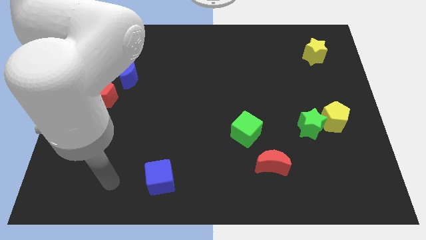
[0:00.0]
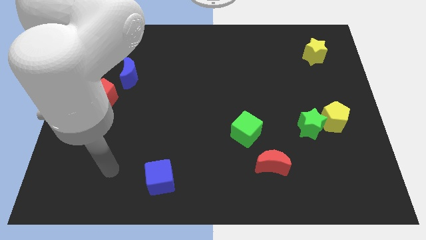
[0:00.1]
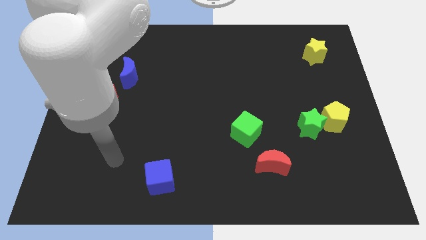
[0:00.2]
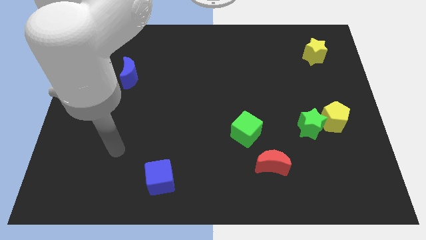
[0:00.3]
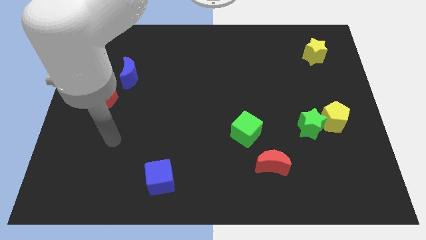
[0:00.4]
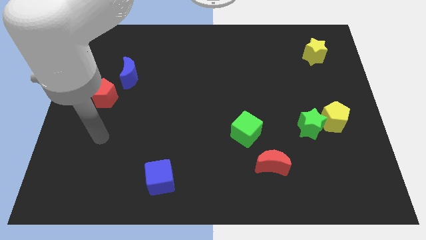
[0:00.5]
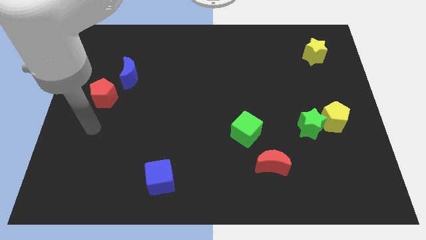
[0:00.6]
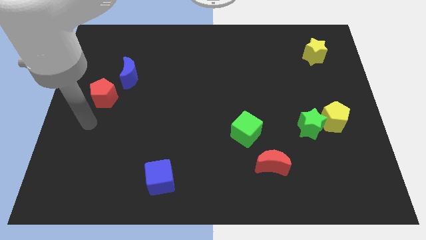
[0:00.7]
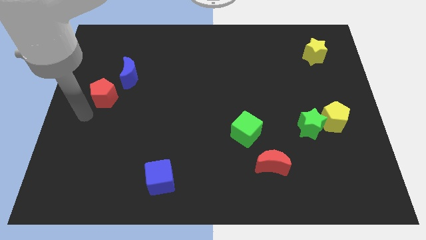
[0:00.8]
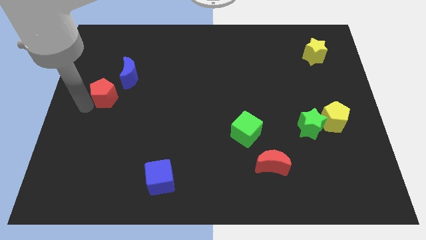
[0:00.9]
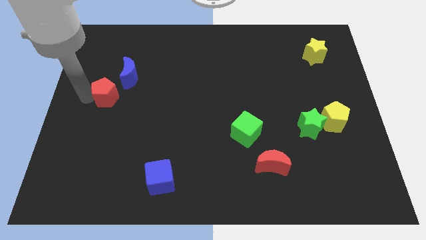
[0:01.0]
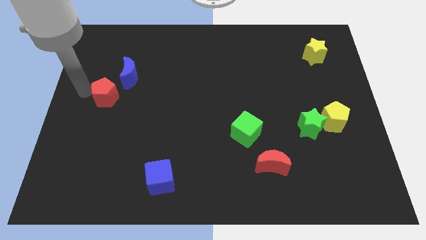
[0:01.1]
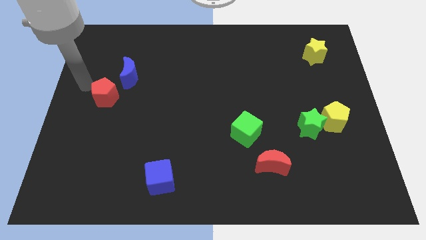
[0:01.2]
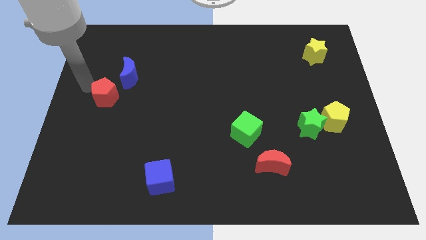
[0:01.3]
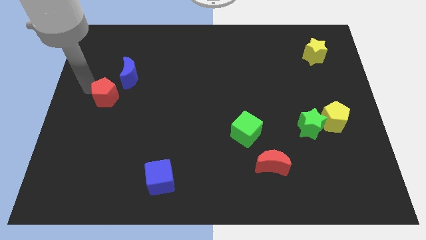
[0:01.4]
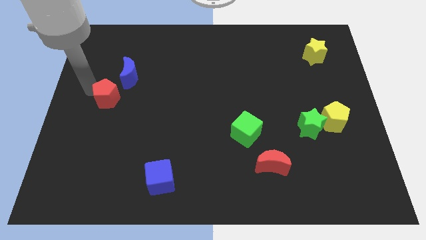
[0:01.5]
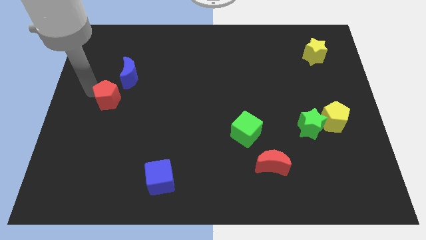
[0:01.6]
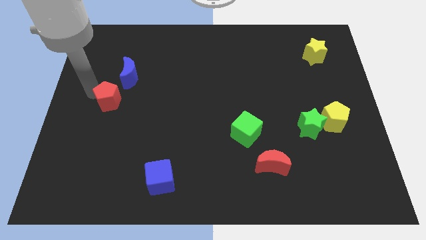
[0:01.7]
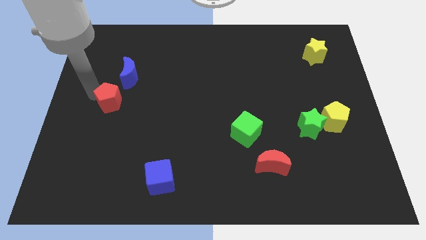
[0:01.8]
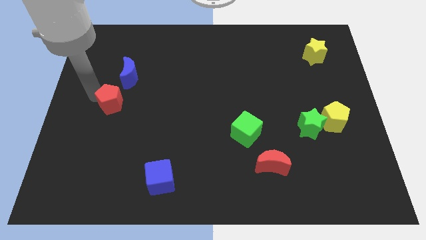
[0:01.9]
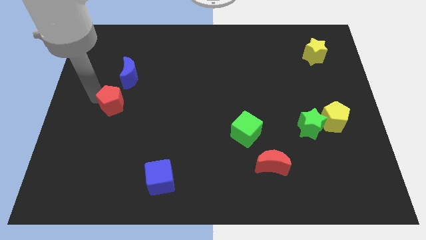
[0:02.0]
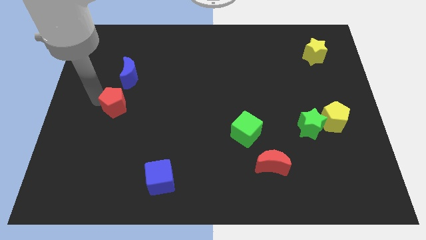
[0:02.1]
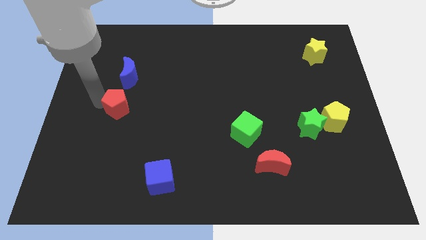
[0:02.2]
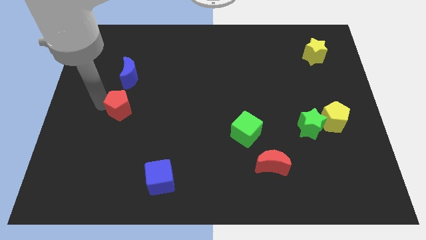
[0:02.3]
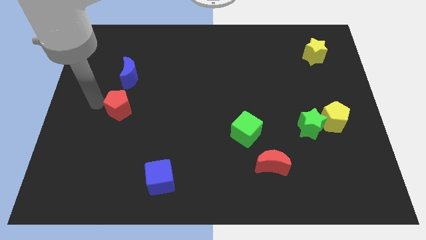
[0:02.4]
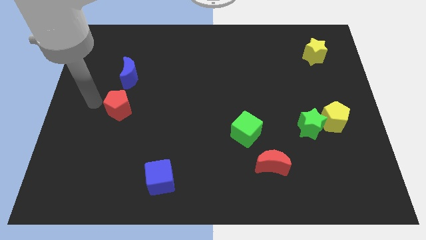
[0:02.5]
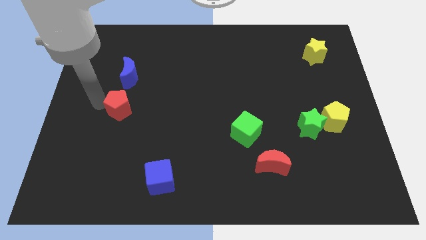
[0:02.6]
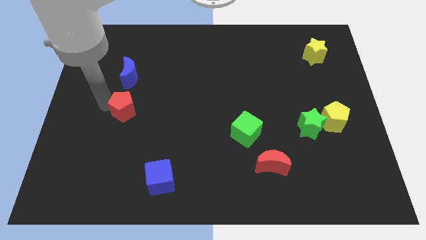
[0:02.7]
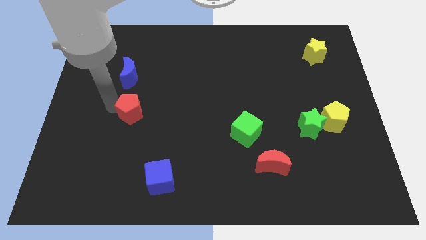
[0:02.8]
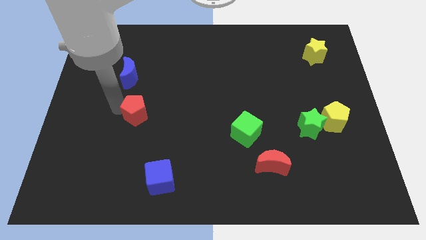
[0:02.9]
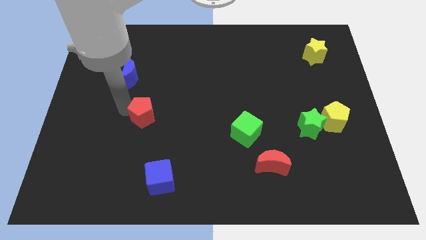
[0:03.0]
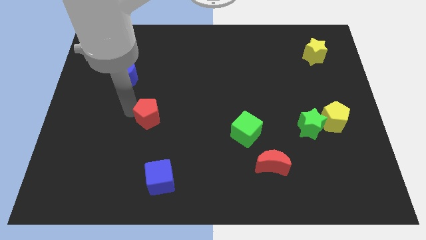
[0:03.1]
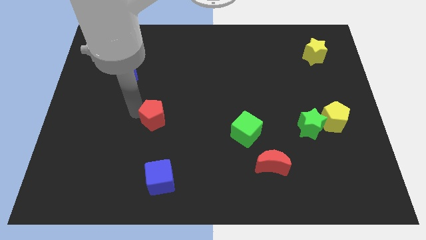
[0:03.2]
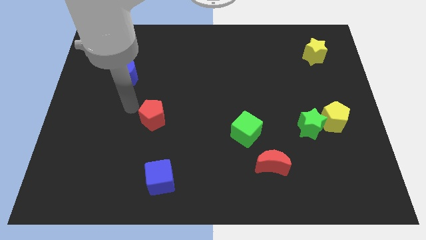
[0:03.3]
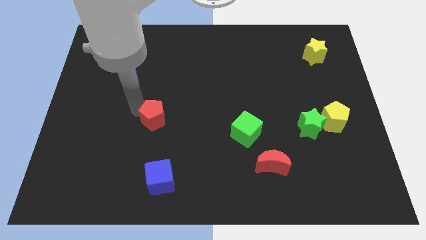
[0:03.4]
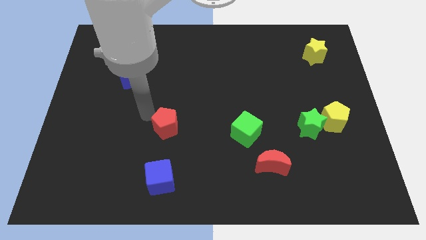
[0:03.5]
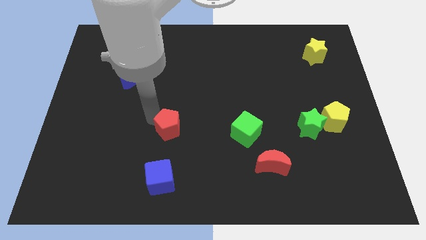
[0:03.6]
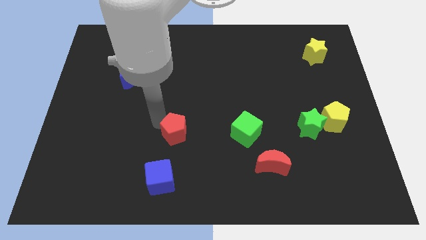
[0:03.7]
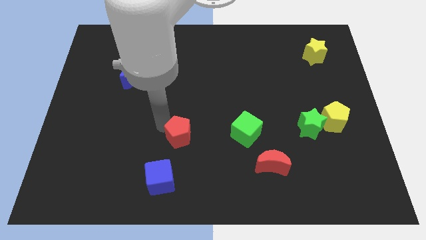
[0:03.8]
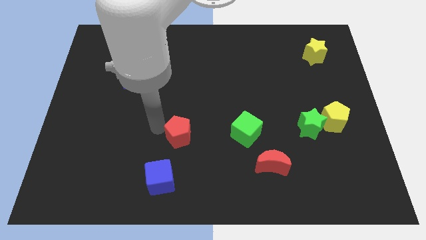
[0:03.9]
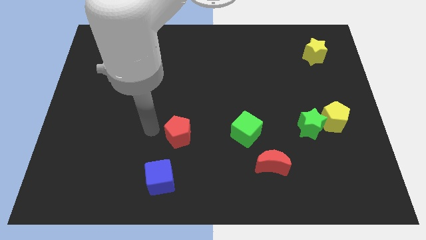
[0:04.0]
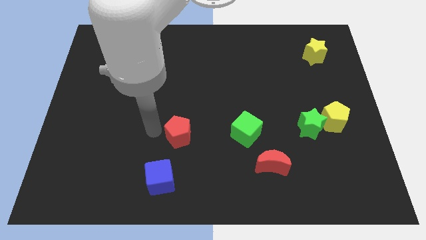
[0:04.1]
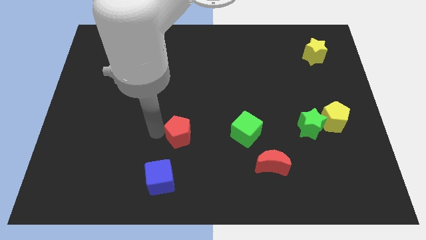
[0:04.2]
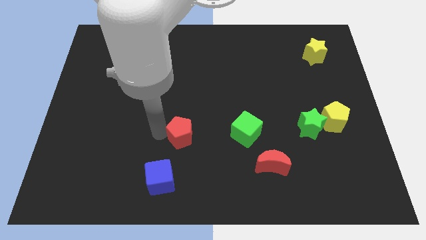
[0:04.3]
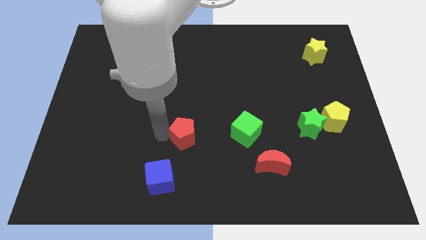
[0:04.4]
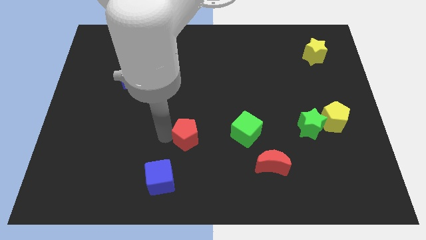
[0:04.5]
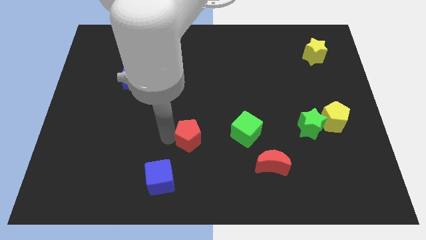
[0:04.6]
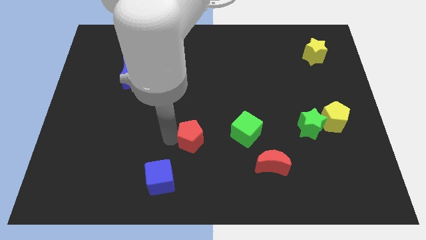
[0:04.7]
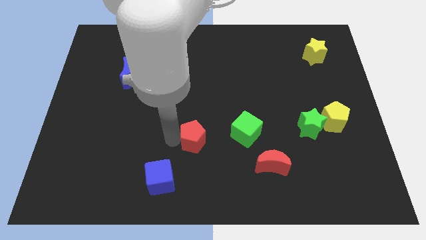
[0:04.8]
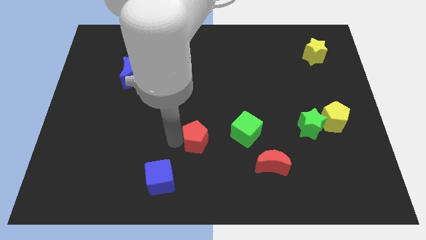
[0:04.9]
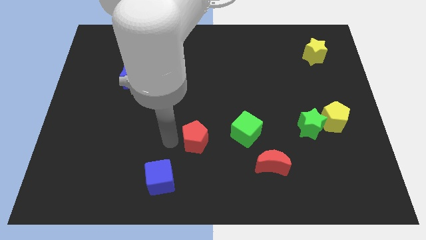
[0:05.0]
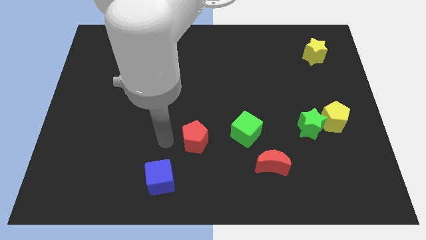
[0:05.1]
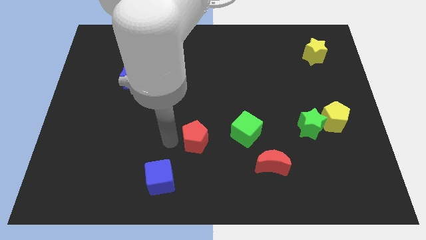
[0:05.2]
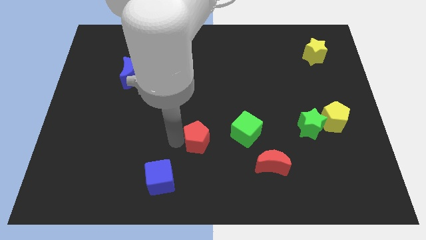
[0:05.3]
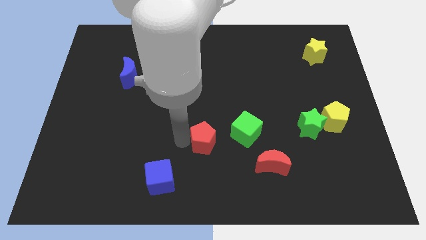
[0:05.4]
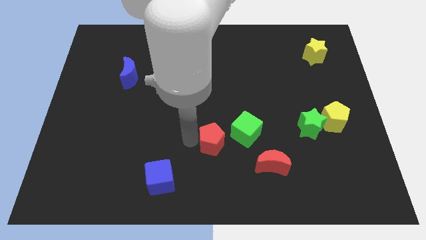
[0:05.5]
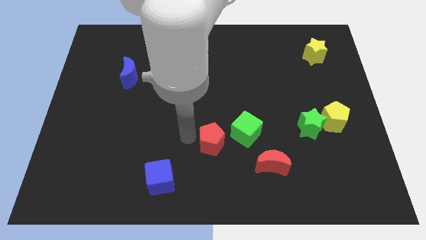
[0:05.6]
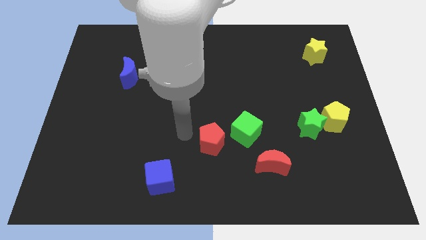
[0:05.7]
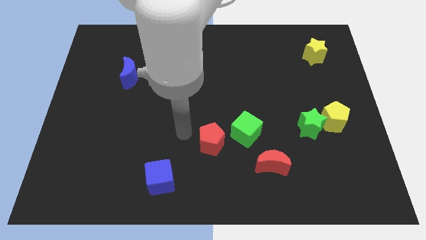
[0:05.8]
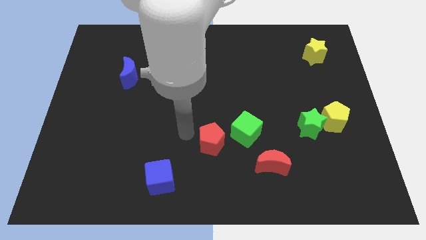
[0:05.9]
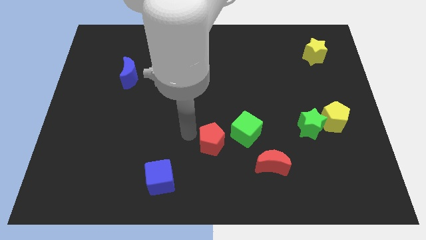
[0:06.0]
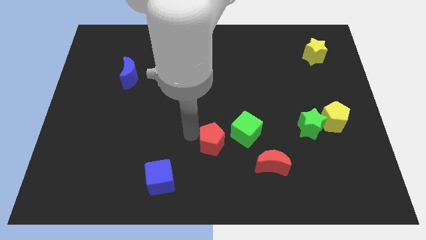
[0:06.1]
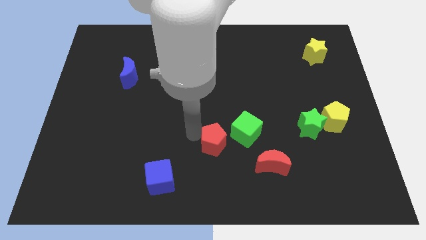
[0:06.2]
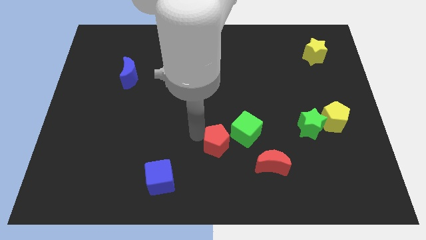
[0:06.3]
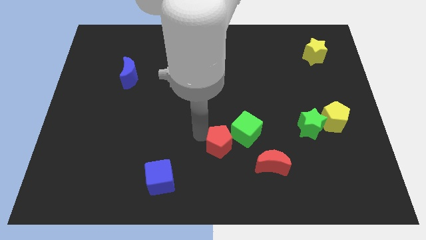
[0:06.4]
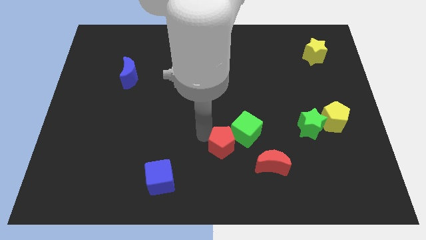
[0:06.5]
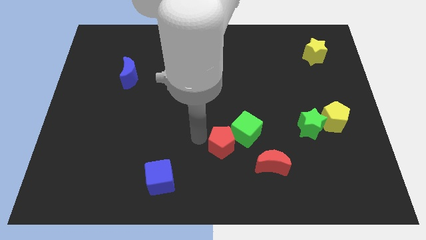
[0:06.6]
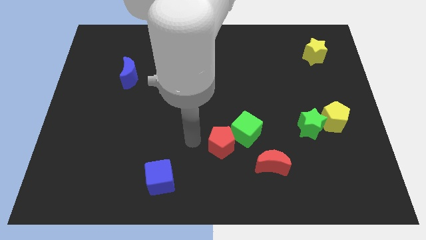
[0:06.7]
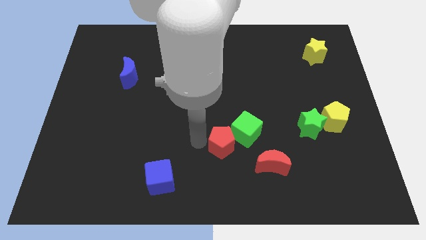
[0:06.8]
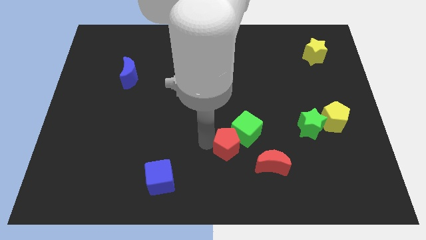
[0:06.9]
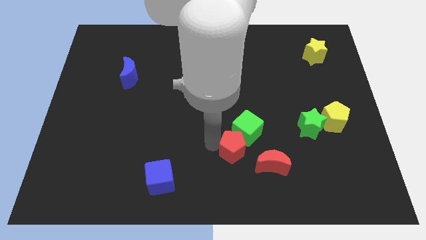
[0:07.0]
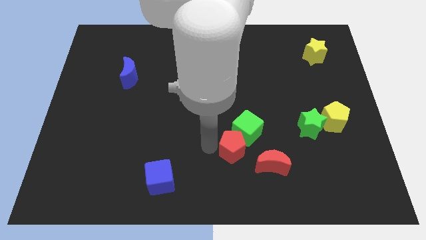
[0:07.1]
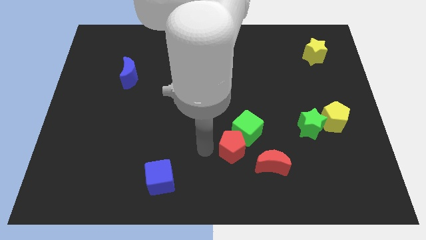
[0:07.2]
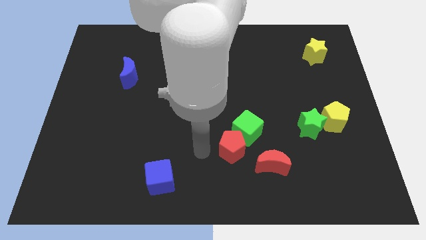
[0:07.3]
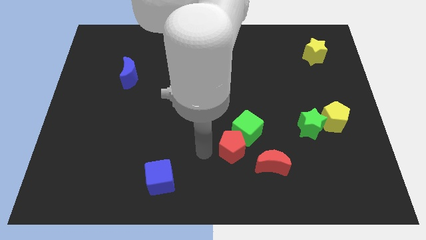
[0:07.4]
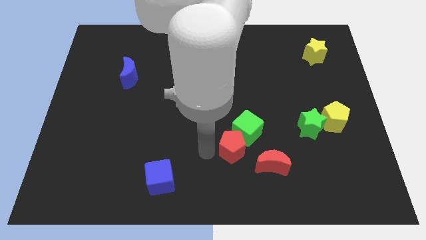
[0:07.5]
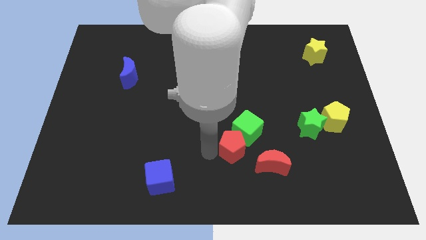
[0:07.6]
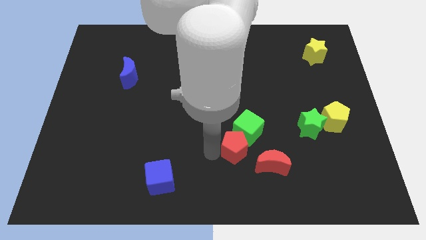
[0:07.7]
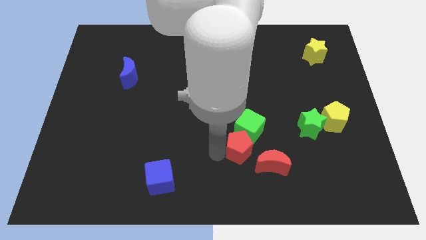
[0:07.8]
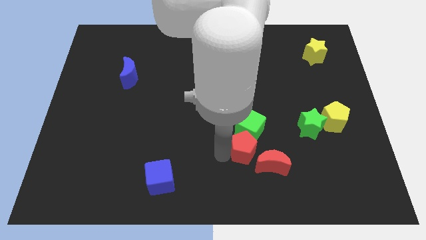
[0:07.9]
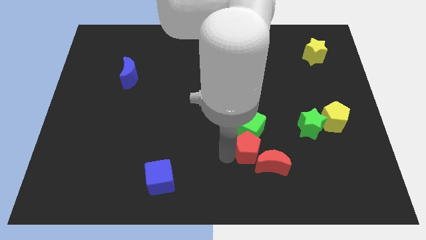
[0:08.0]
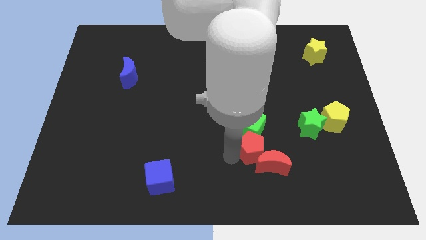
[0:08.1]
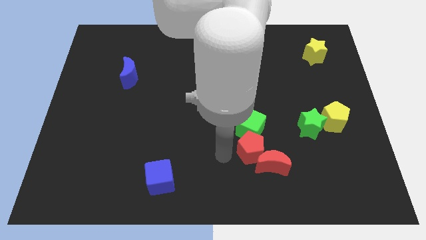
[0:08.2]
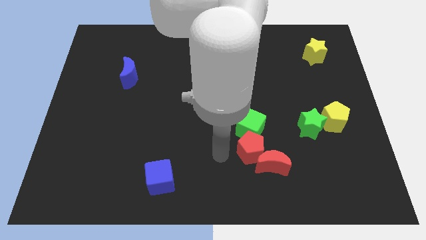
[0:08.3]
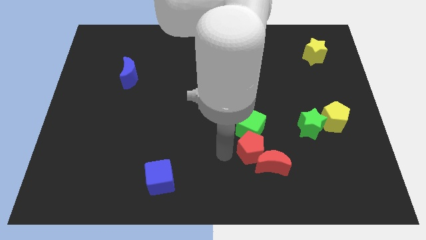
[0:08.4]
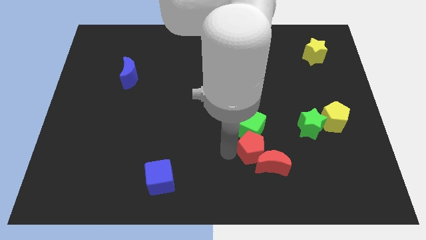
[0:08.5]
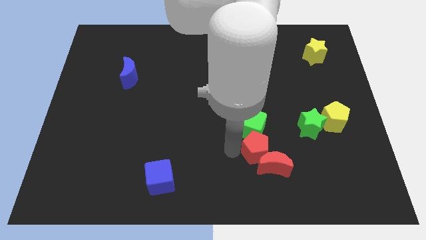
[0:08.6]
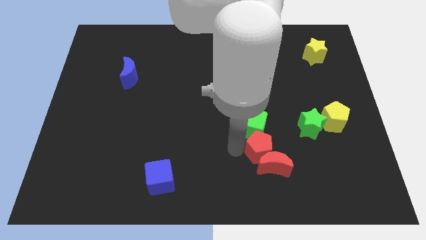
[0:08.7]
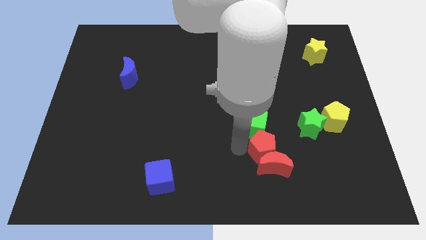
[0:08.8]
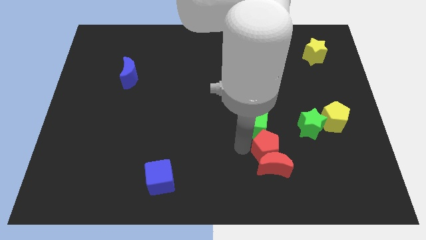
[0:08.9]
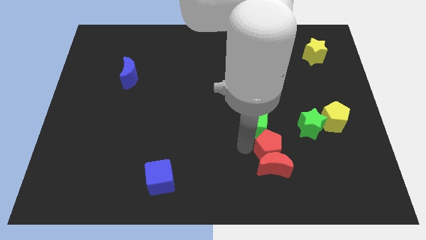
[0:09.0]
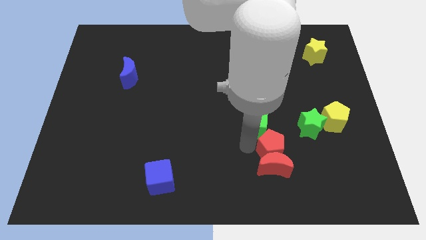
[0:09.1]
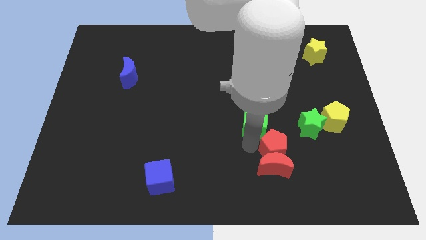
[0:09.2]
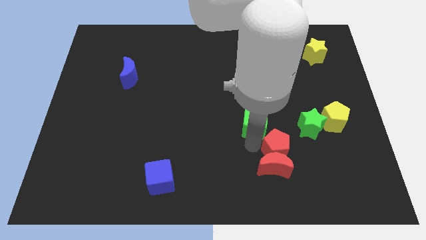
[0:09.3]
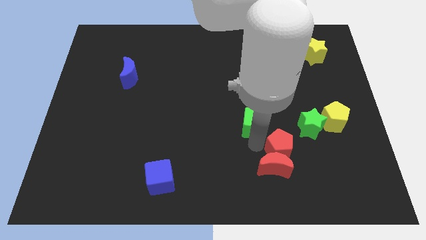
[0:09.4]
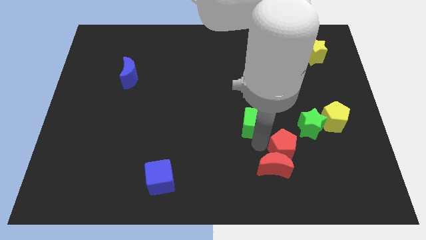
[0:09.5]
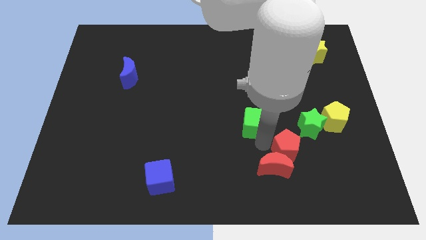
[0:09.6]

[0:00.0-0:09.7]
move the red pentagon to the right side of the red moon
